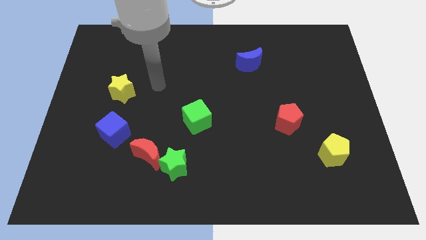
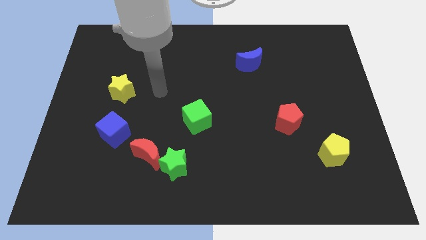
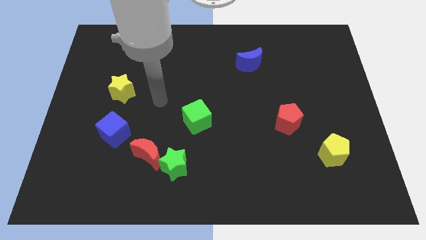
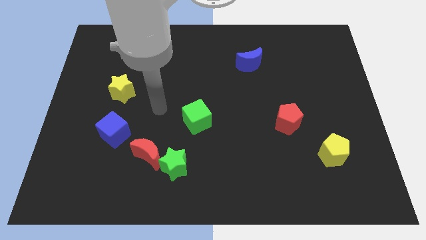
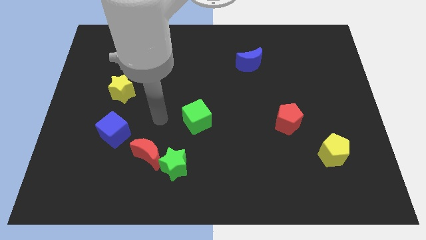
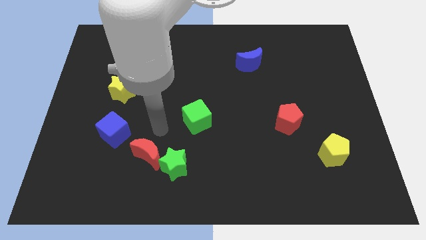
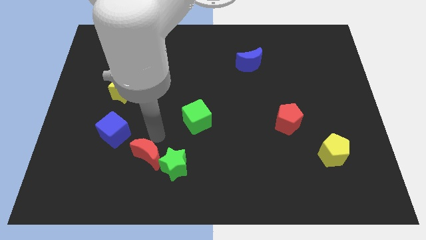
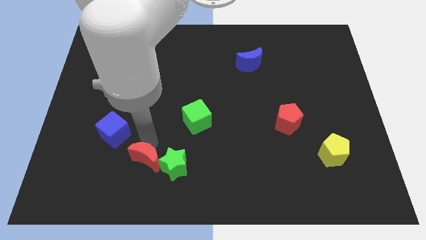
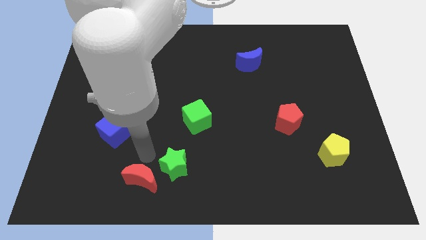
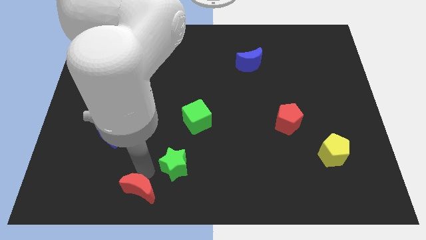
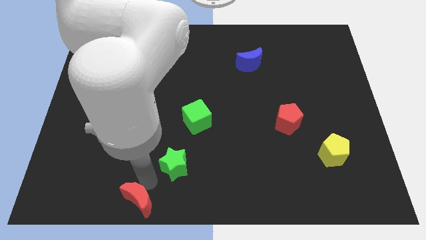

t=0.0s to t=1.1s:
move the green star away from the red moon

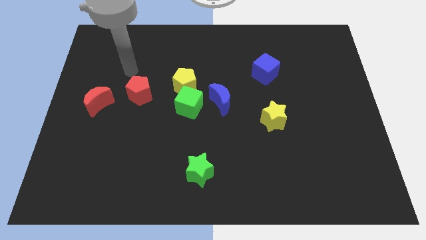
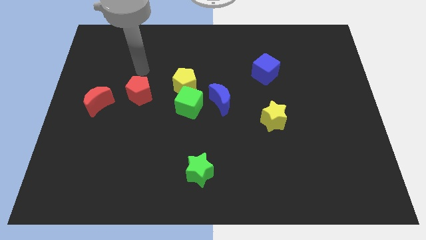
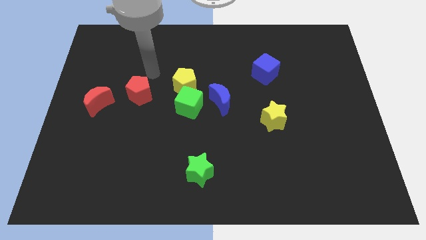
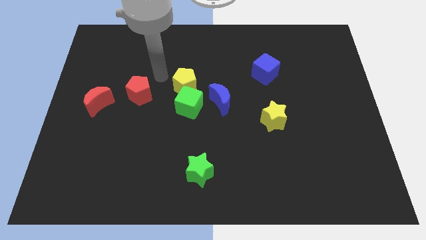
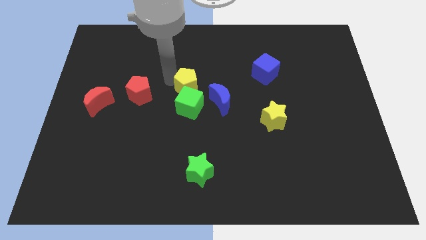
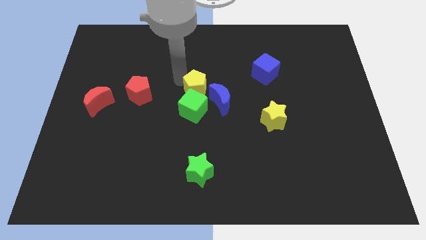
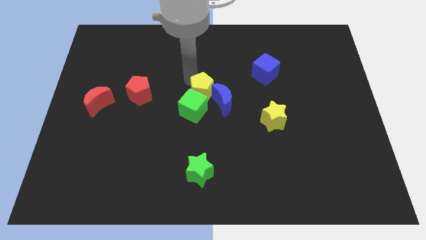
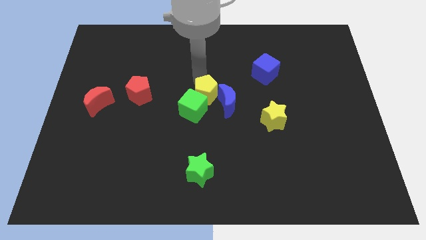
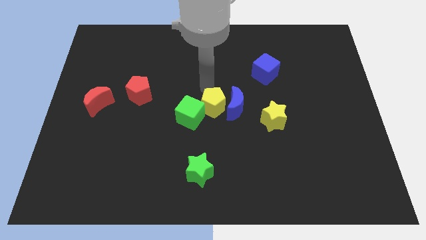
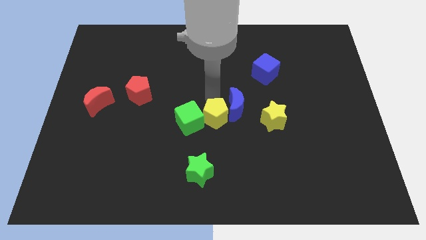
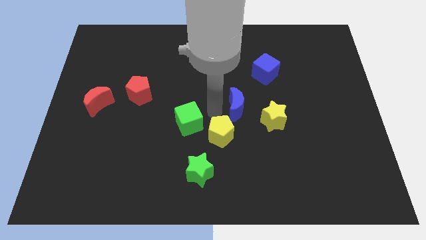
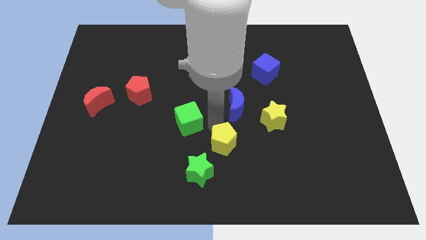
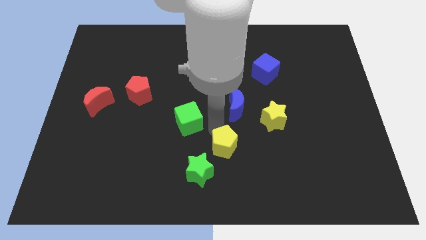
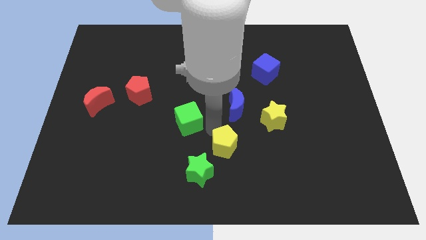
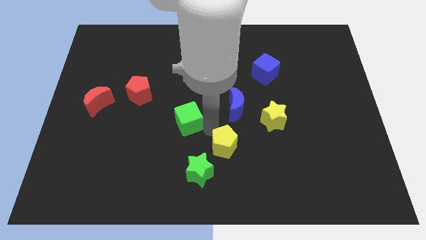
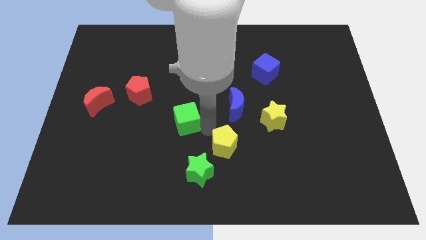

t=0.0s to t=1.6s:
pull the green cube apart from the yellow pentagon and blue moon

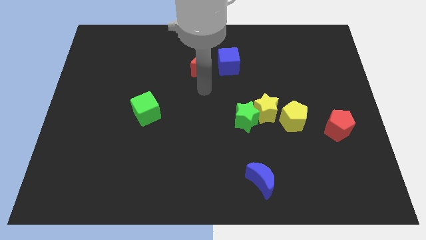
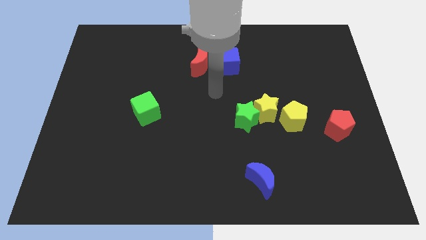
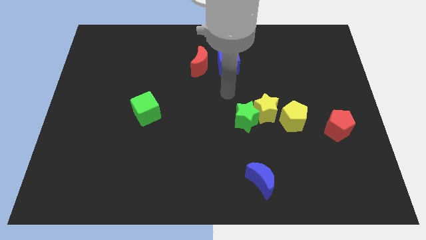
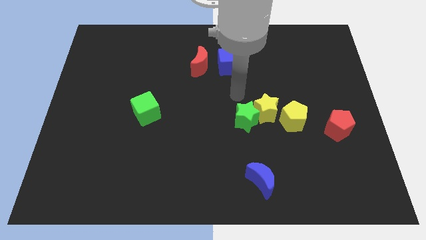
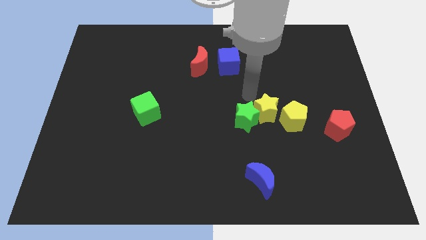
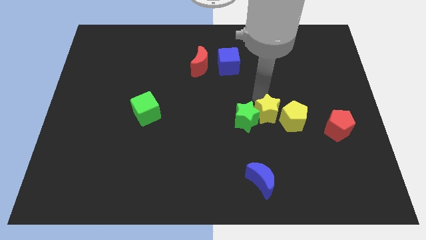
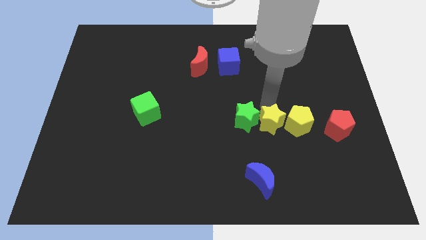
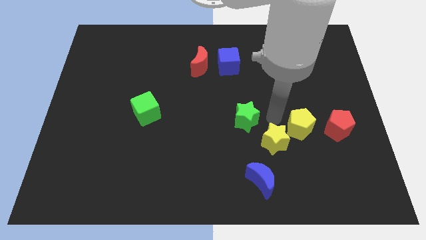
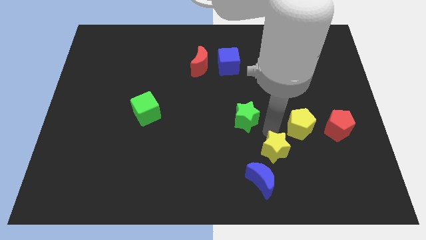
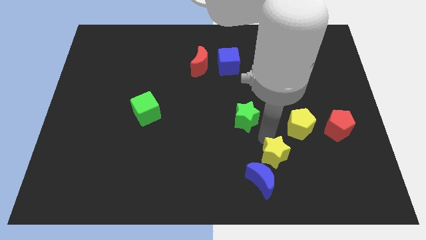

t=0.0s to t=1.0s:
separate the green star from the yellow star

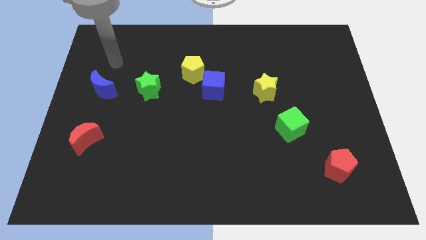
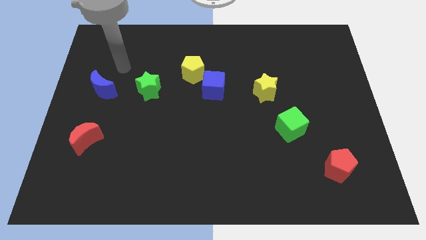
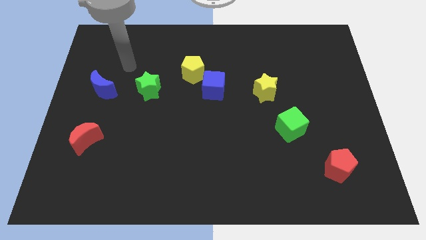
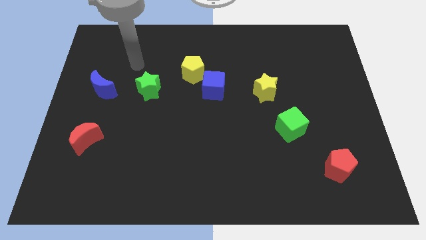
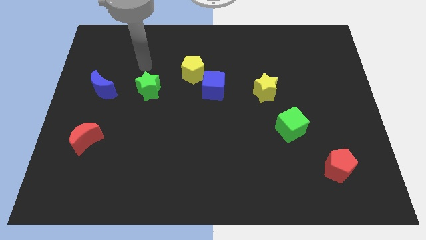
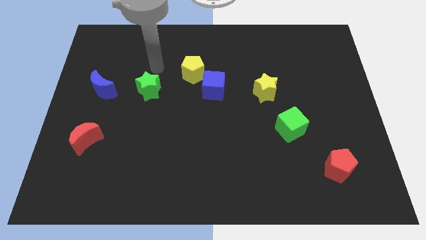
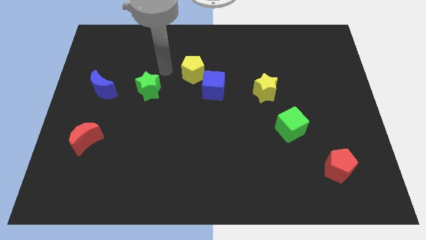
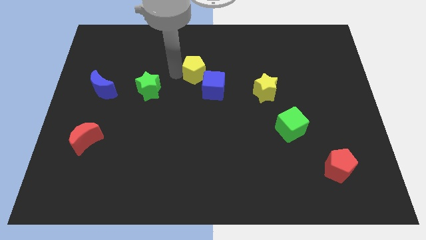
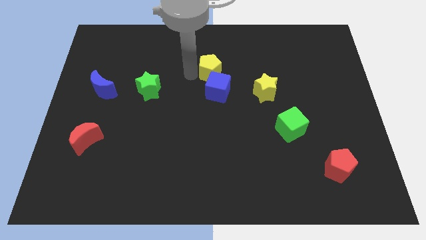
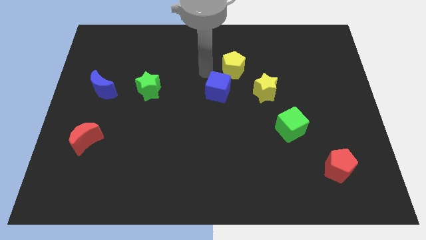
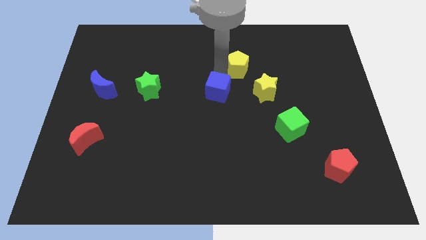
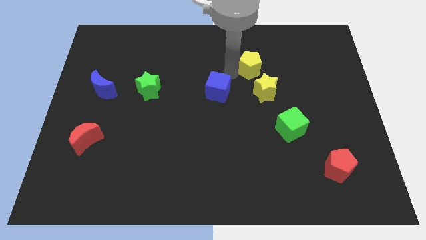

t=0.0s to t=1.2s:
separate the blue cube from the yellow pentagon

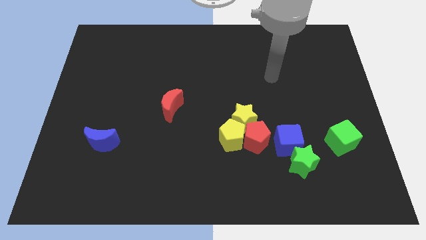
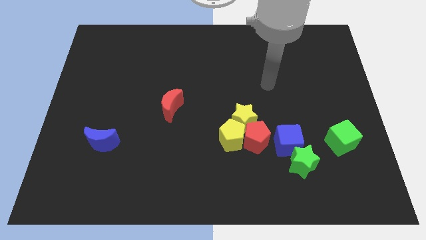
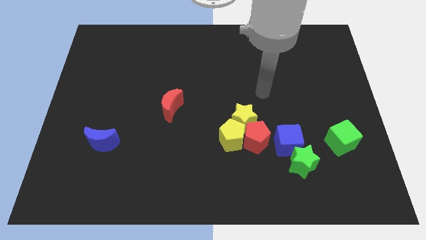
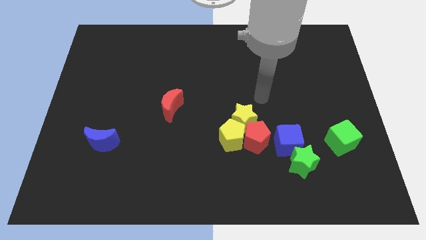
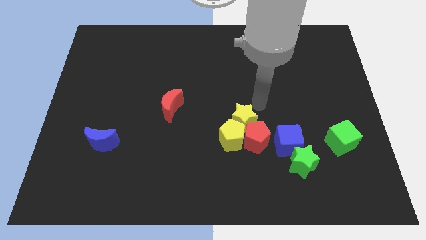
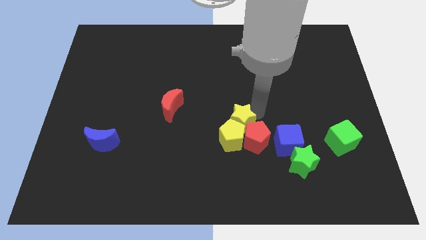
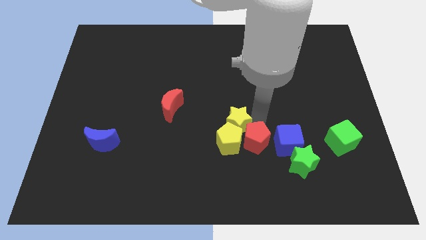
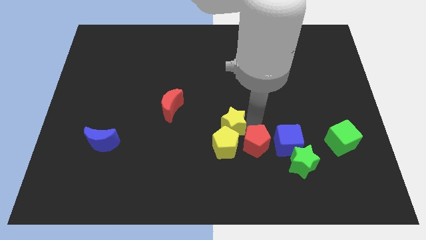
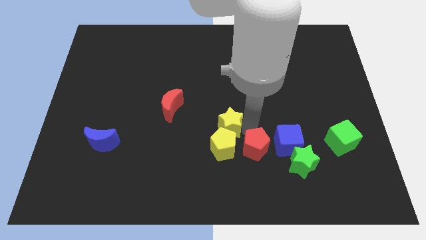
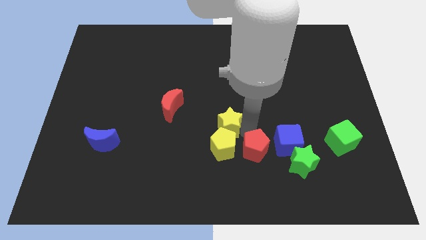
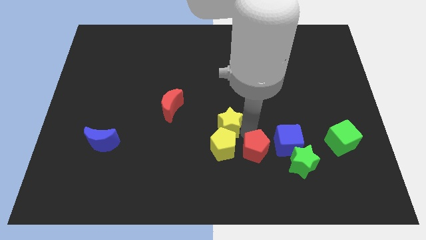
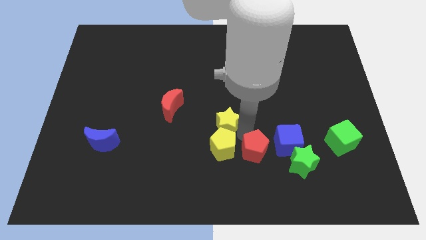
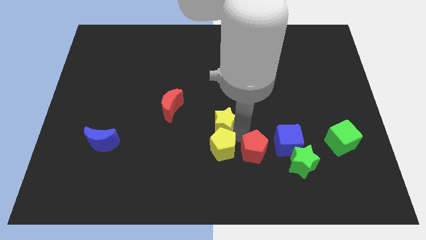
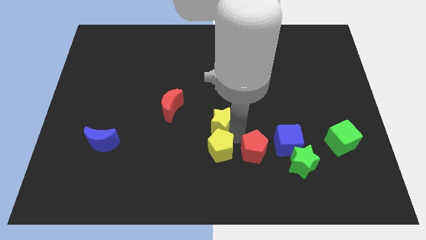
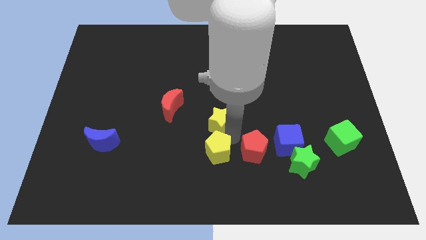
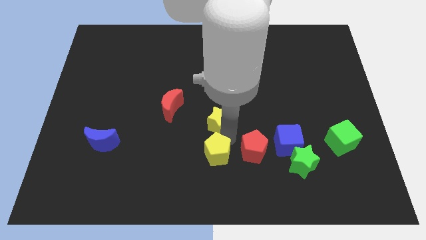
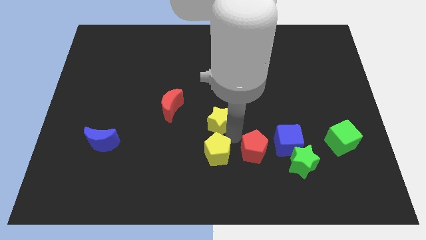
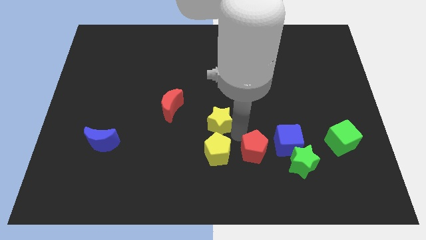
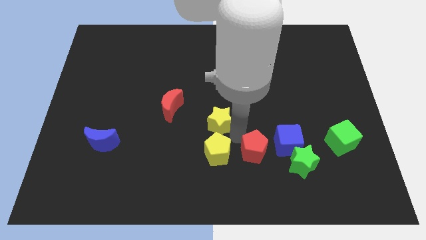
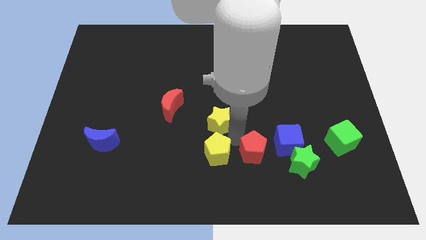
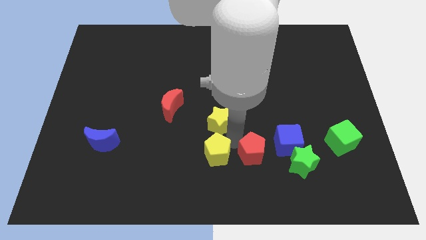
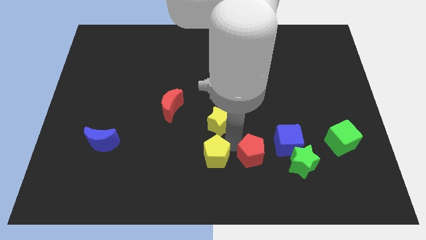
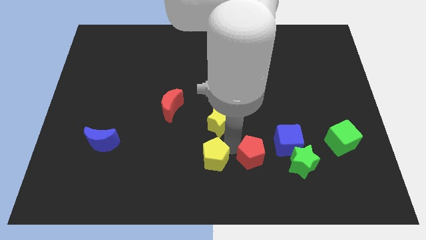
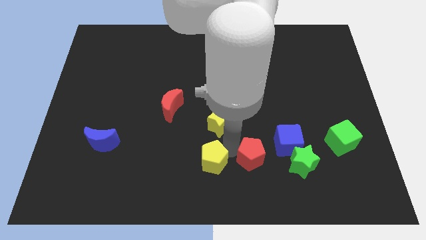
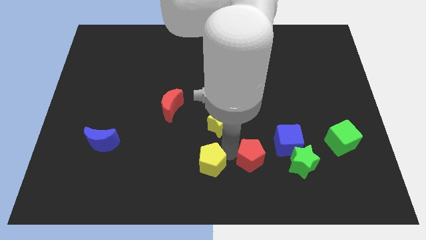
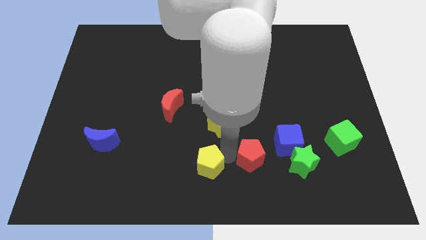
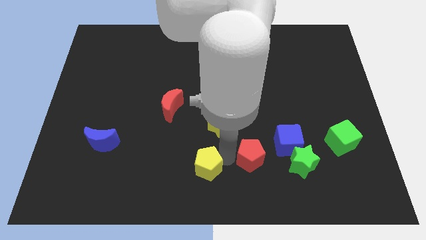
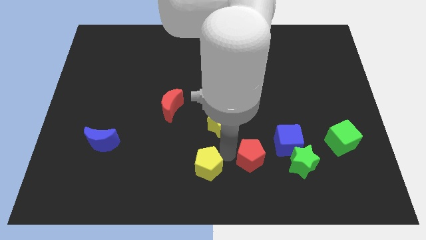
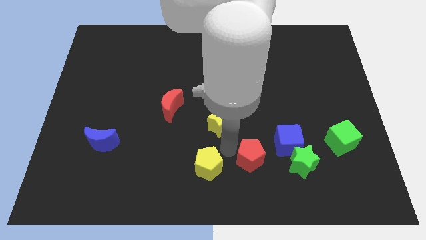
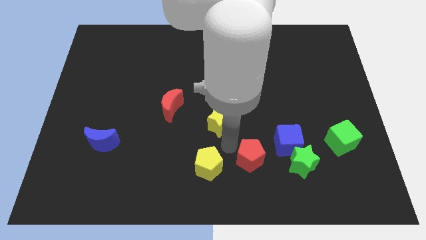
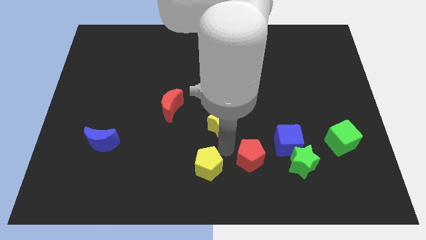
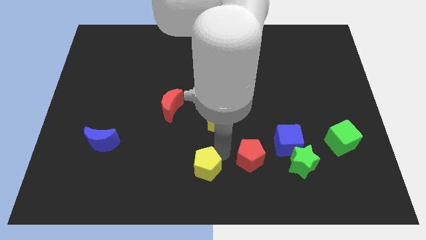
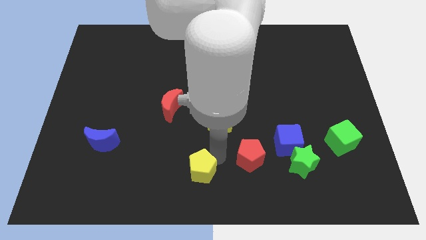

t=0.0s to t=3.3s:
move the yellow pentagon away from the red pentagon and yellow star

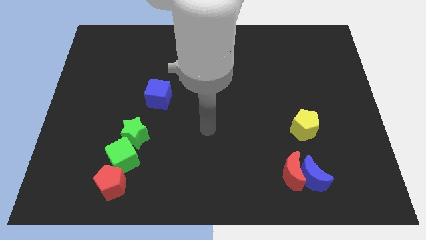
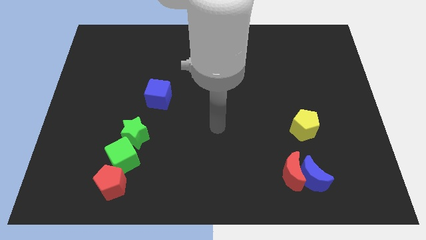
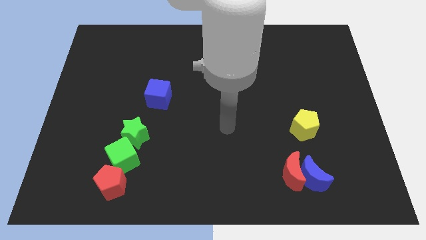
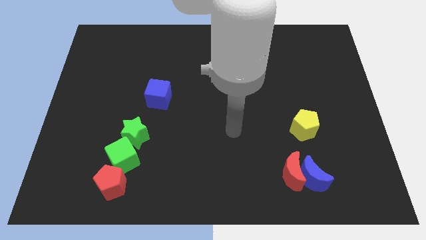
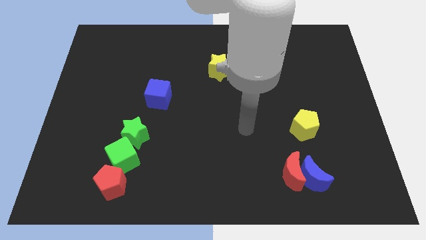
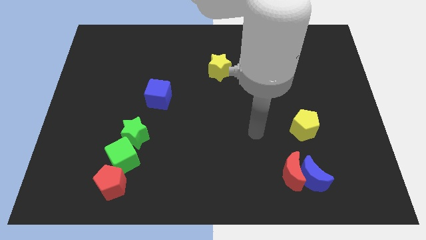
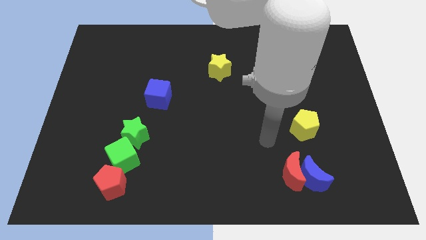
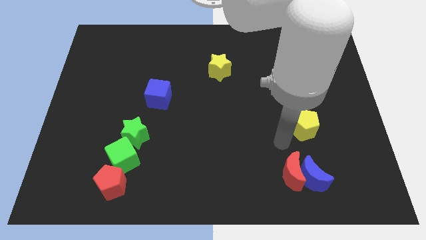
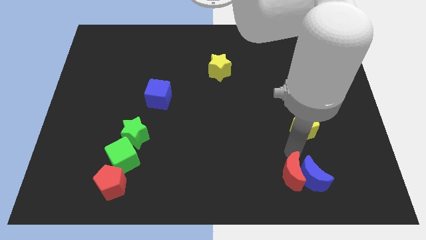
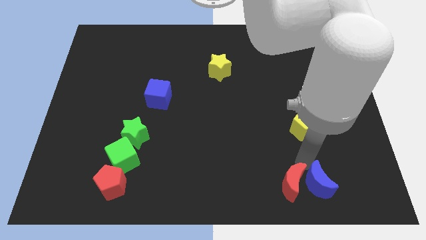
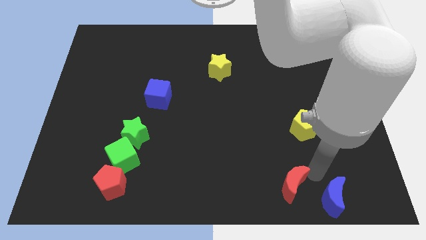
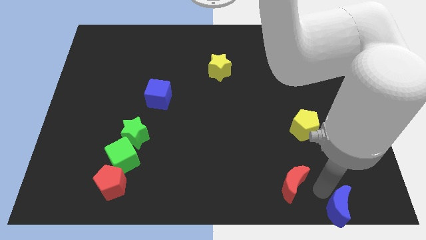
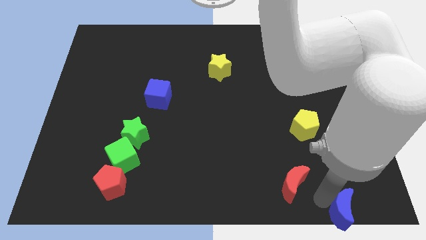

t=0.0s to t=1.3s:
move the red moon away from the blue moon
